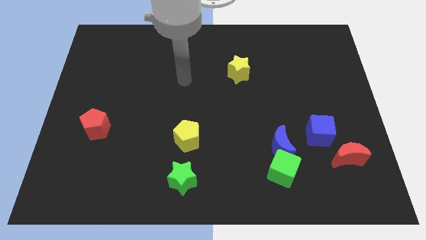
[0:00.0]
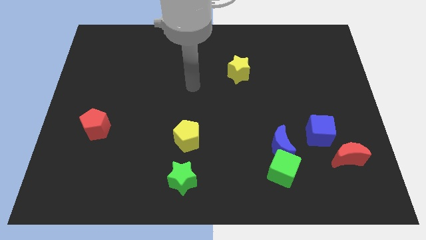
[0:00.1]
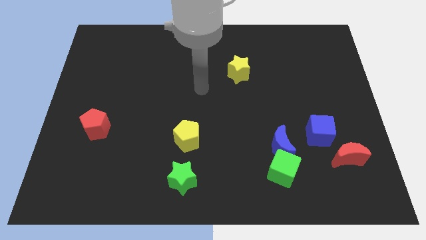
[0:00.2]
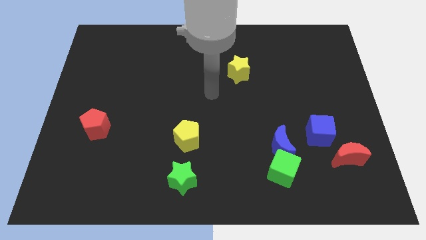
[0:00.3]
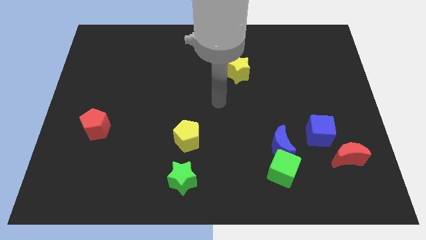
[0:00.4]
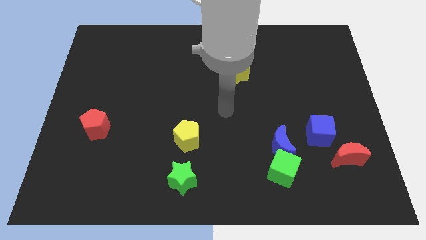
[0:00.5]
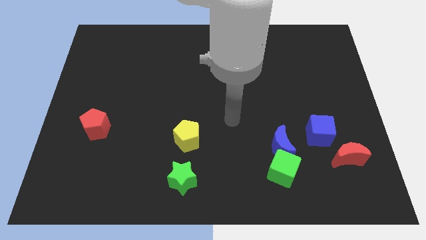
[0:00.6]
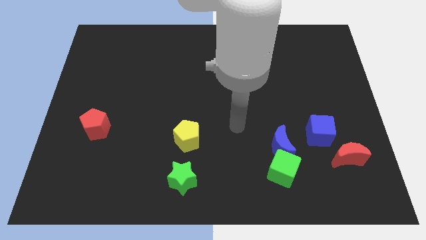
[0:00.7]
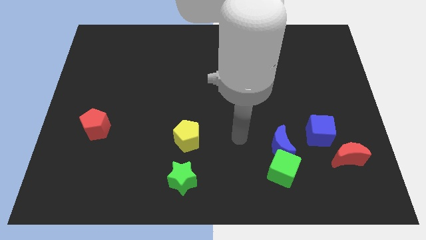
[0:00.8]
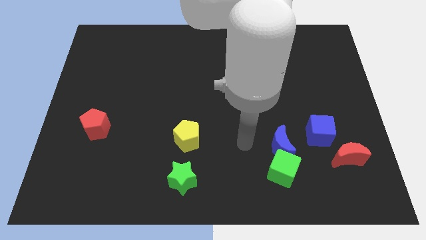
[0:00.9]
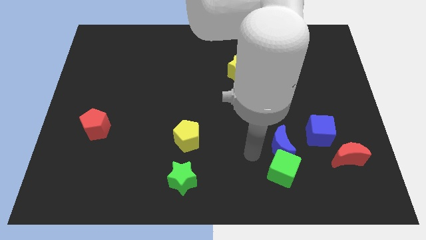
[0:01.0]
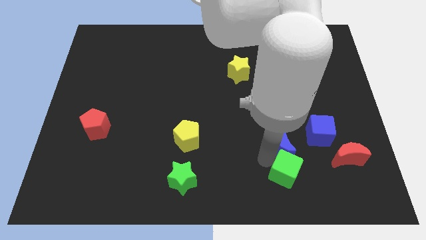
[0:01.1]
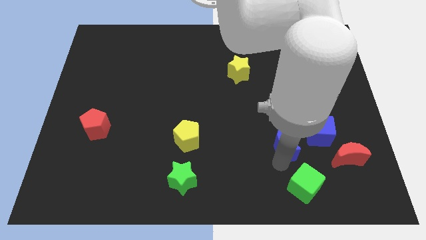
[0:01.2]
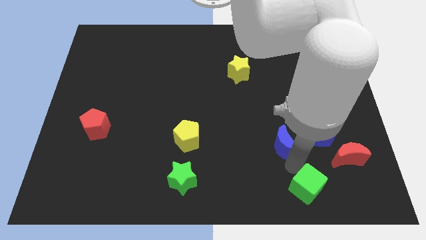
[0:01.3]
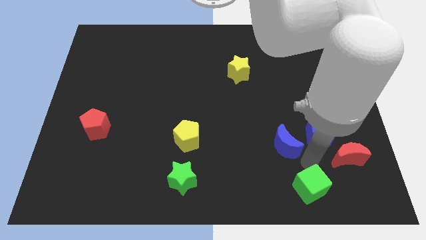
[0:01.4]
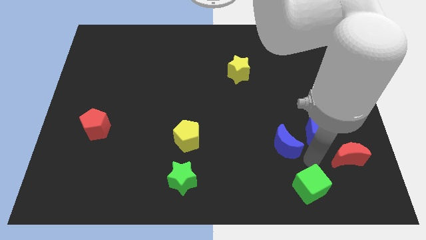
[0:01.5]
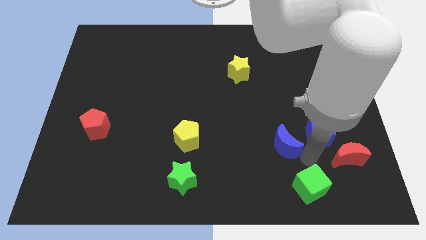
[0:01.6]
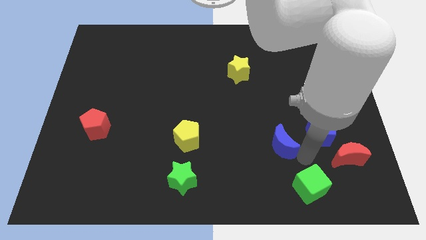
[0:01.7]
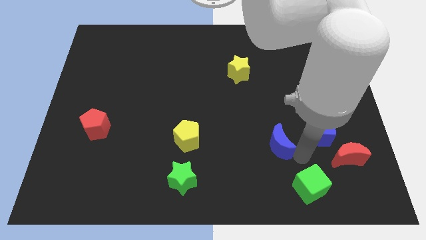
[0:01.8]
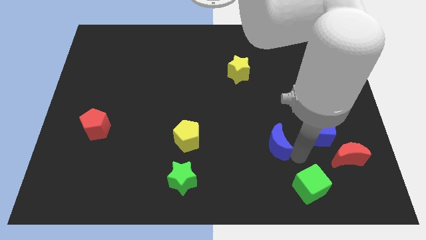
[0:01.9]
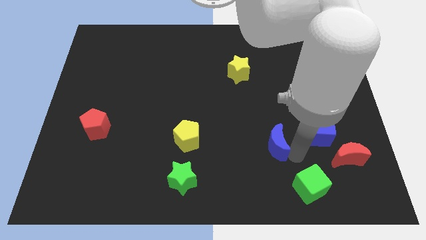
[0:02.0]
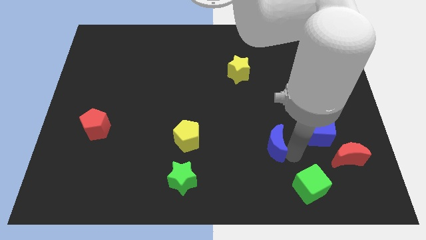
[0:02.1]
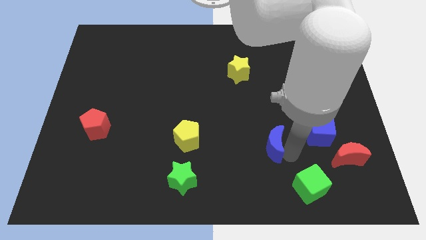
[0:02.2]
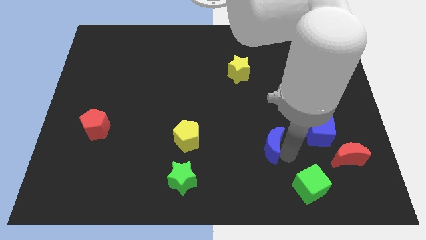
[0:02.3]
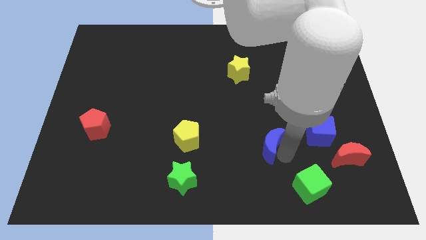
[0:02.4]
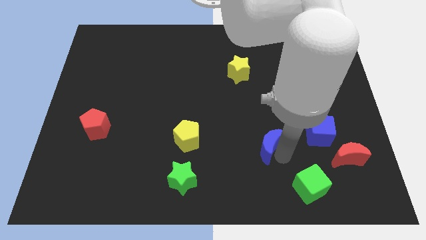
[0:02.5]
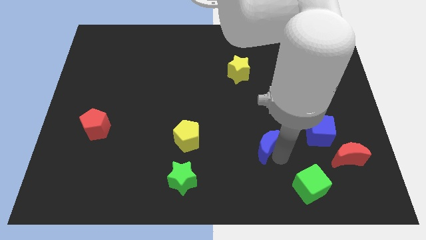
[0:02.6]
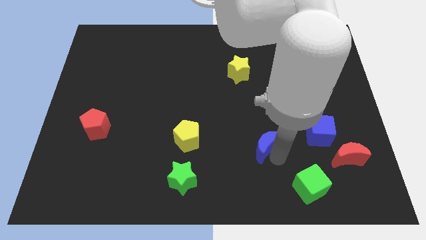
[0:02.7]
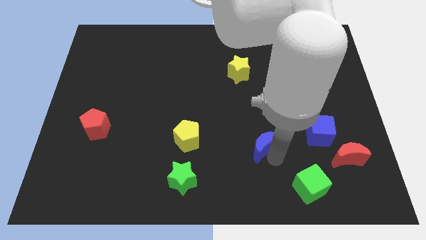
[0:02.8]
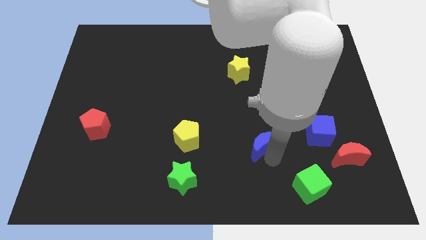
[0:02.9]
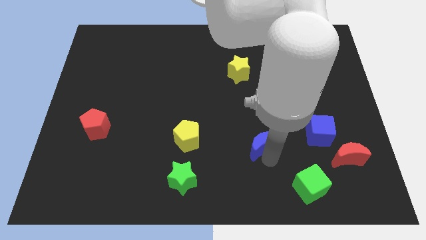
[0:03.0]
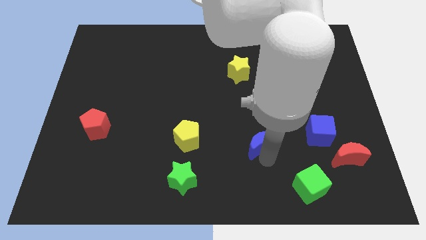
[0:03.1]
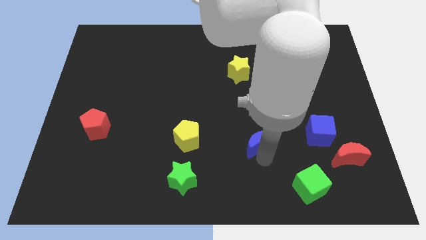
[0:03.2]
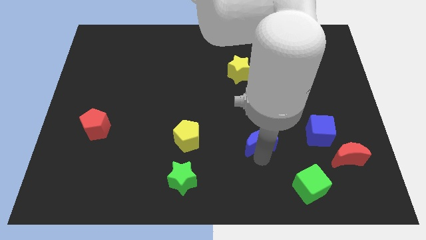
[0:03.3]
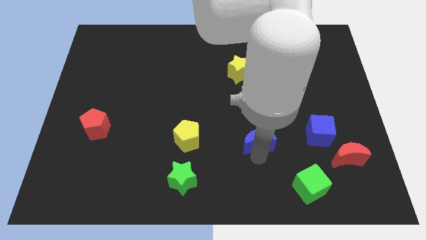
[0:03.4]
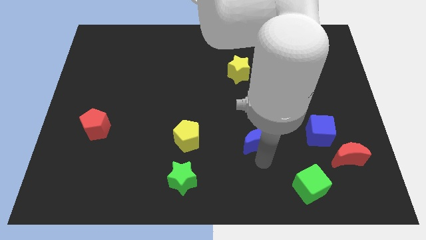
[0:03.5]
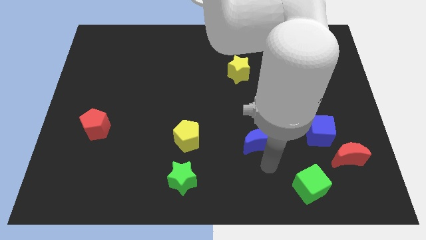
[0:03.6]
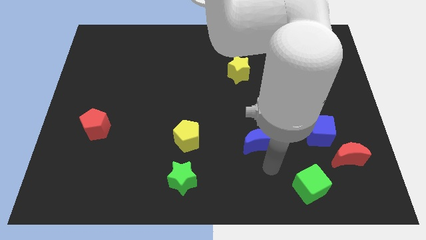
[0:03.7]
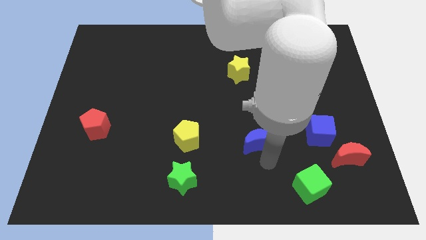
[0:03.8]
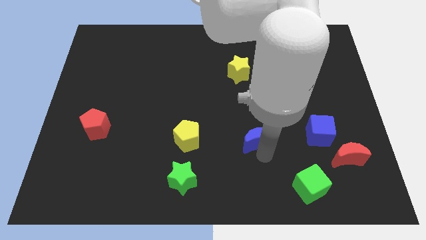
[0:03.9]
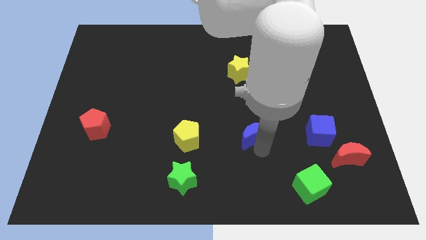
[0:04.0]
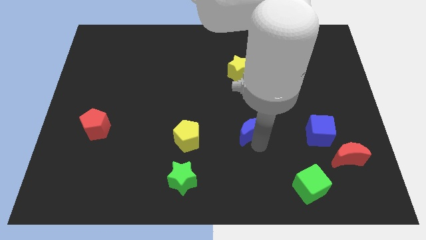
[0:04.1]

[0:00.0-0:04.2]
slightly push the blue moon diagonally up and left

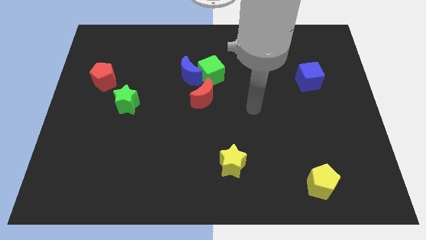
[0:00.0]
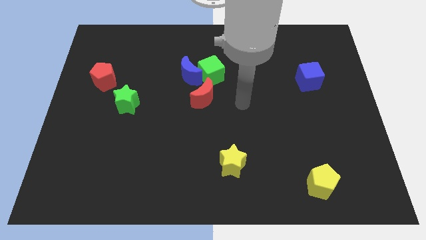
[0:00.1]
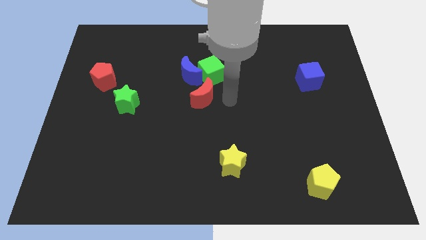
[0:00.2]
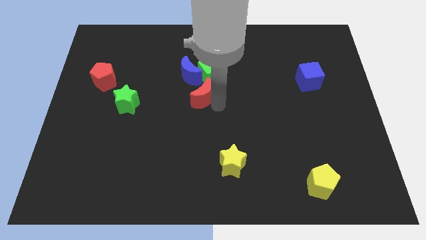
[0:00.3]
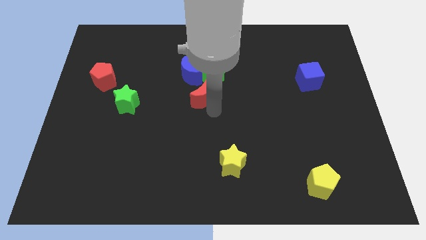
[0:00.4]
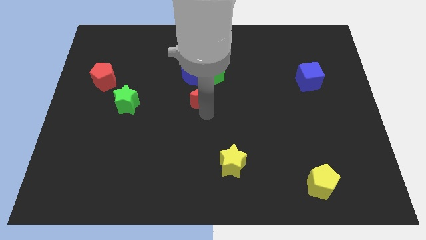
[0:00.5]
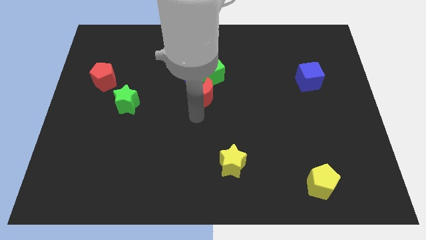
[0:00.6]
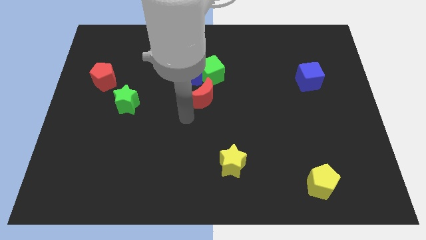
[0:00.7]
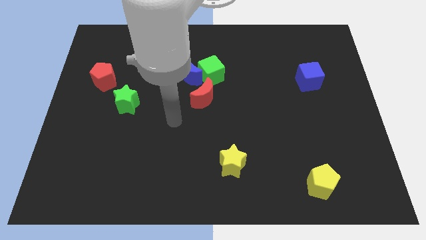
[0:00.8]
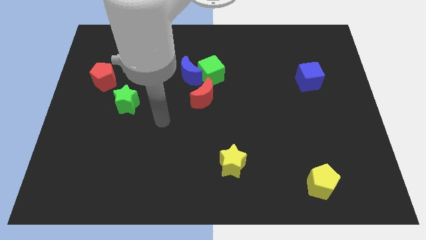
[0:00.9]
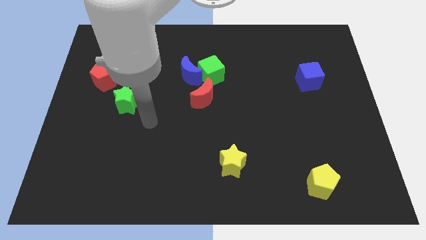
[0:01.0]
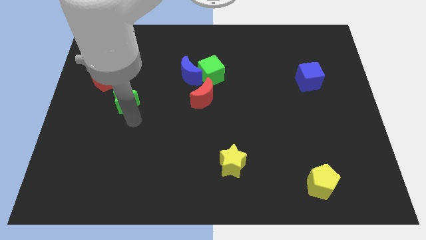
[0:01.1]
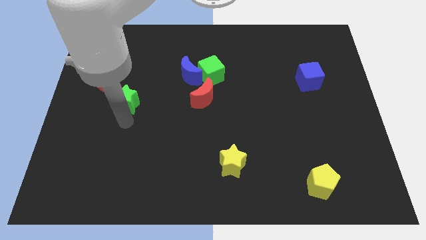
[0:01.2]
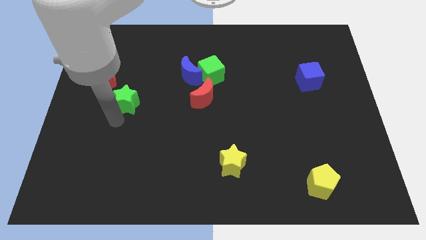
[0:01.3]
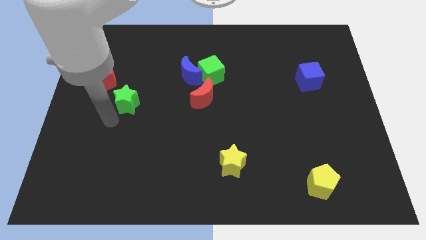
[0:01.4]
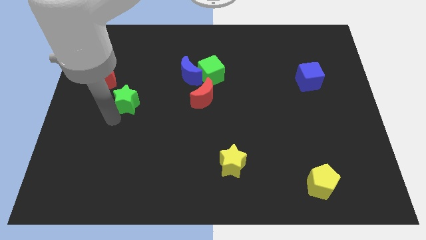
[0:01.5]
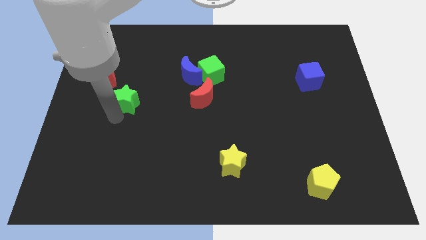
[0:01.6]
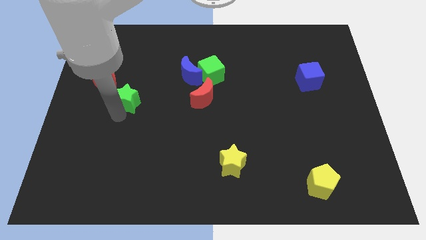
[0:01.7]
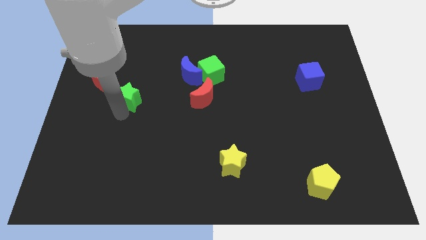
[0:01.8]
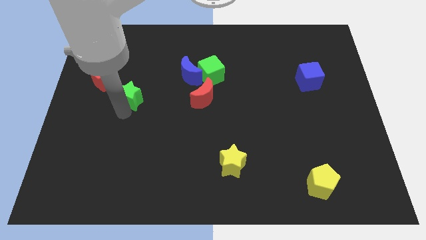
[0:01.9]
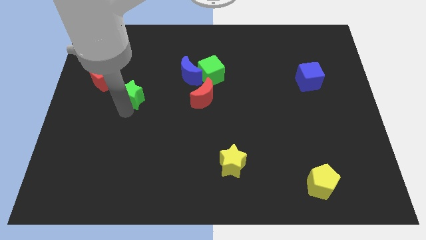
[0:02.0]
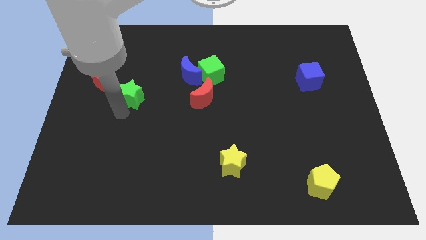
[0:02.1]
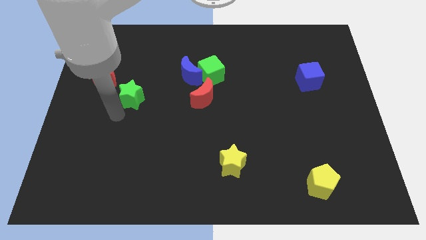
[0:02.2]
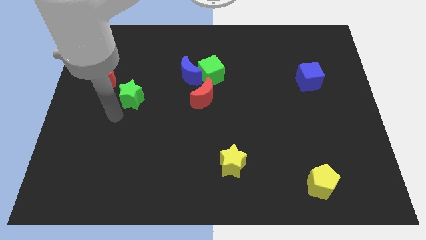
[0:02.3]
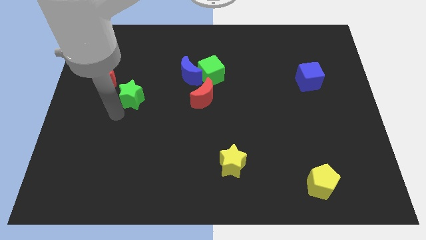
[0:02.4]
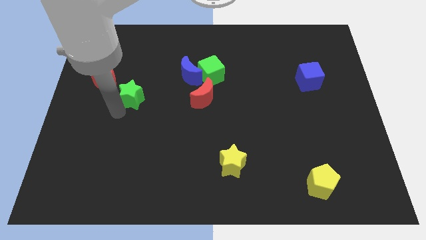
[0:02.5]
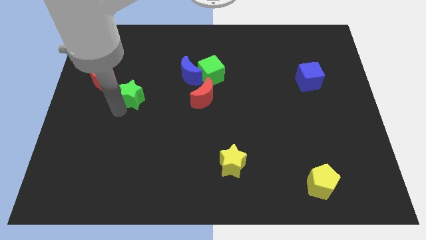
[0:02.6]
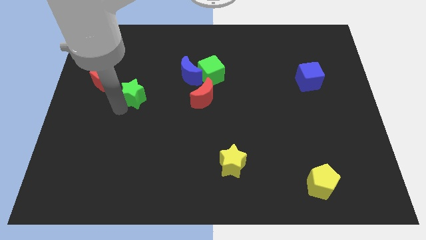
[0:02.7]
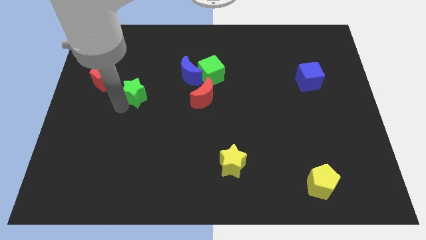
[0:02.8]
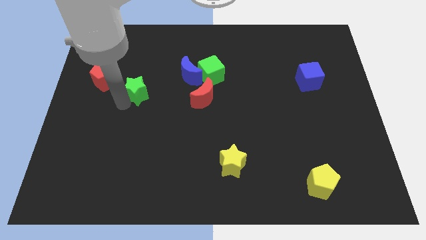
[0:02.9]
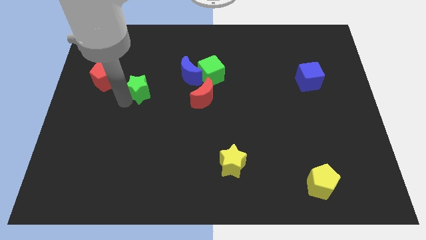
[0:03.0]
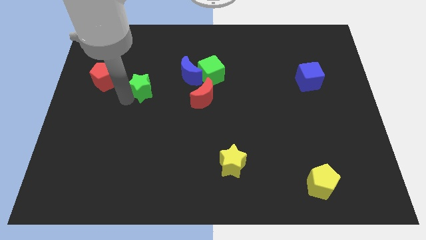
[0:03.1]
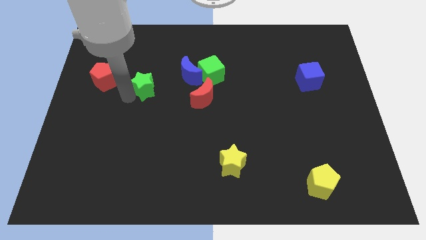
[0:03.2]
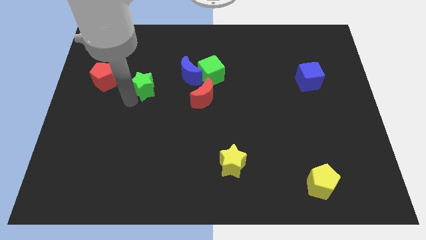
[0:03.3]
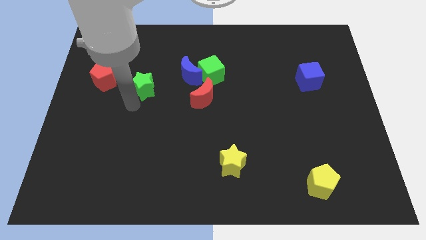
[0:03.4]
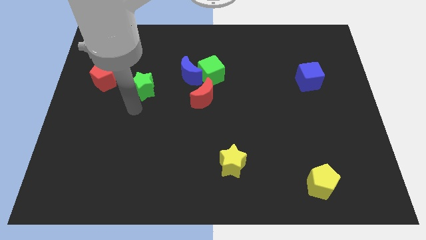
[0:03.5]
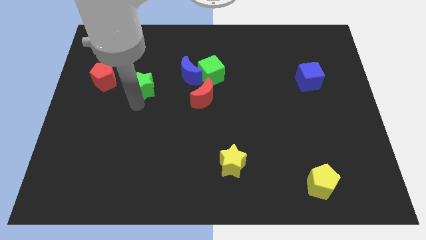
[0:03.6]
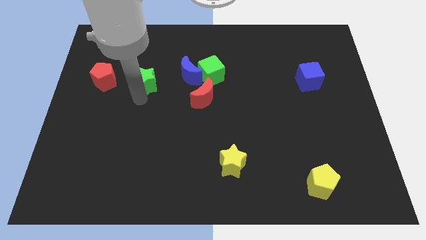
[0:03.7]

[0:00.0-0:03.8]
slightly push the green star up and right diagonally
